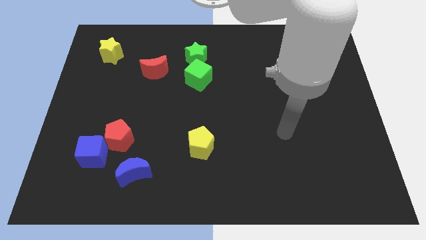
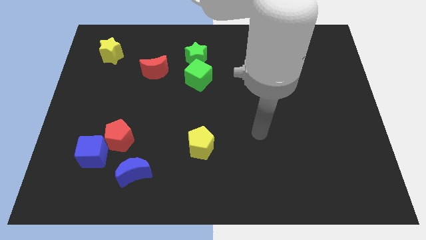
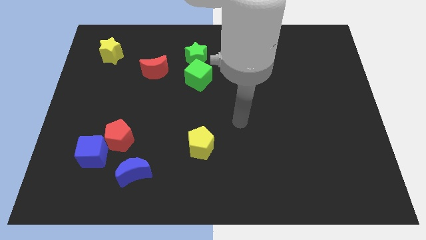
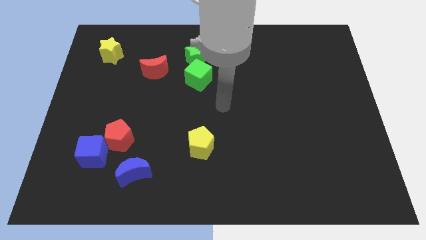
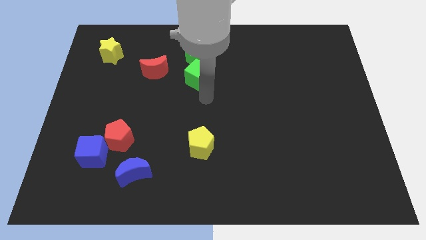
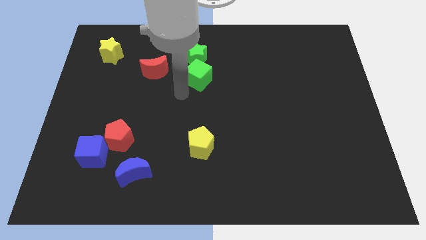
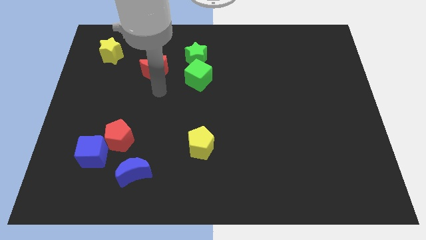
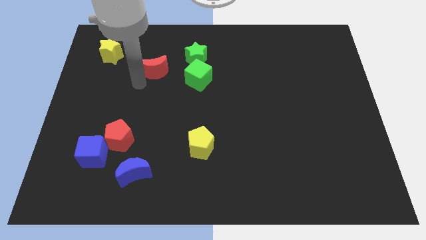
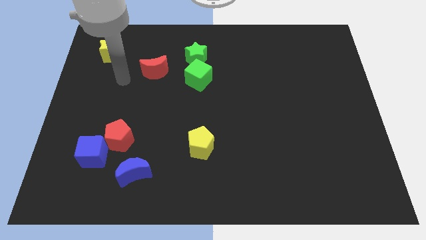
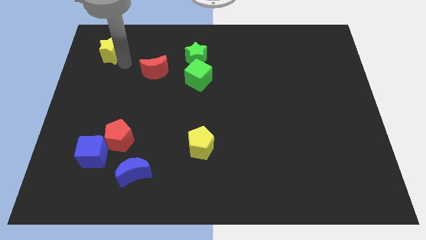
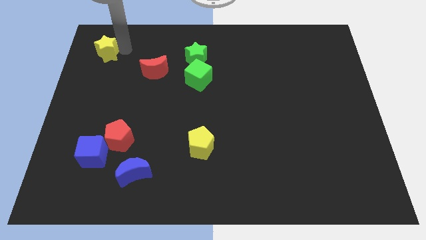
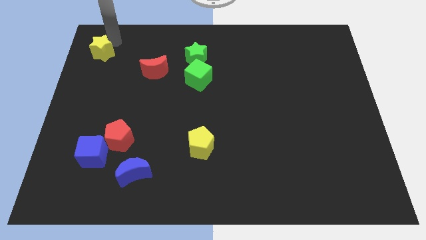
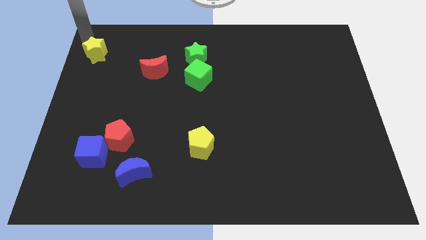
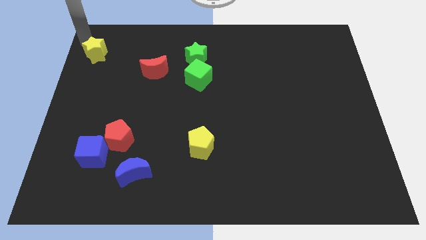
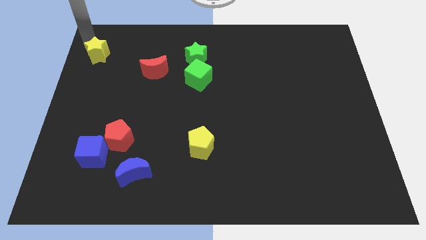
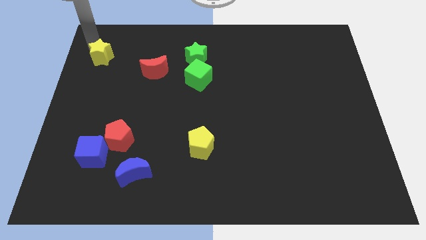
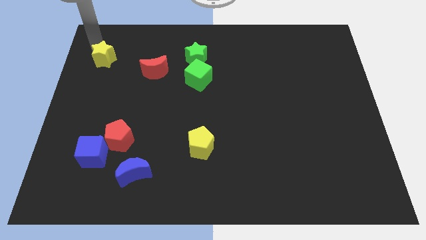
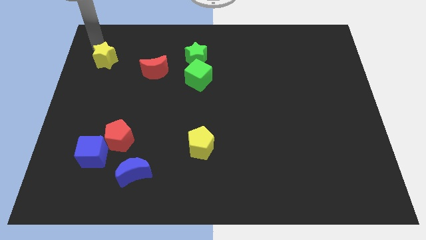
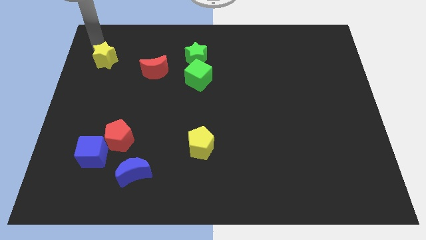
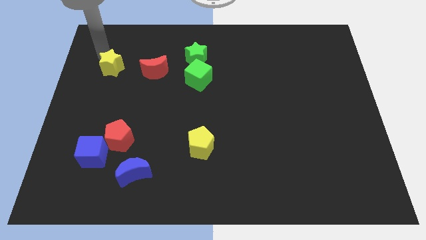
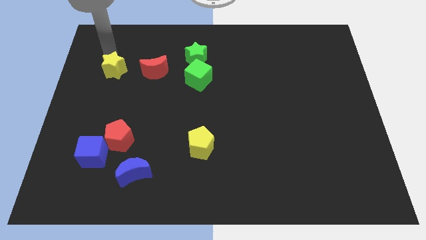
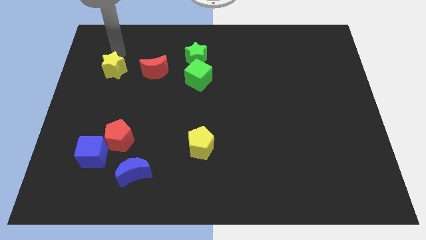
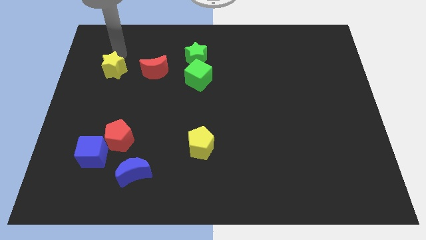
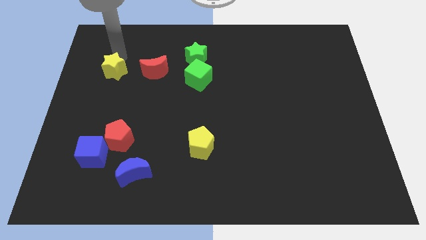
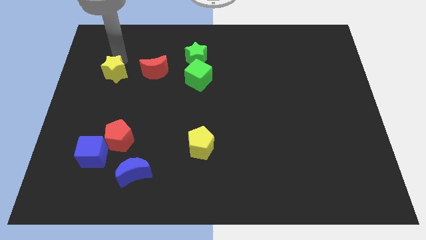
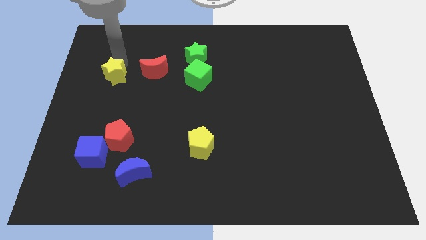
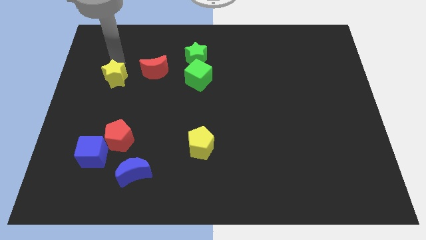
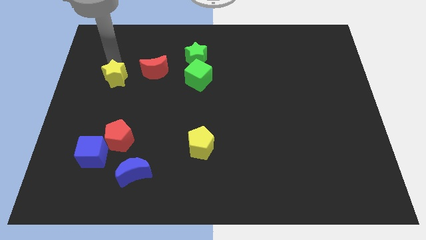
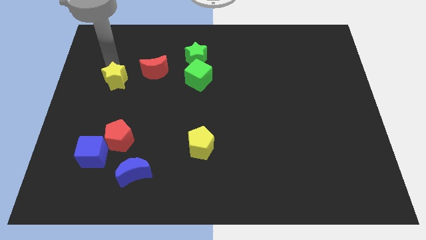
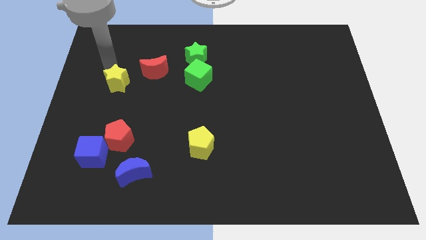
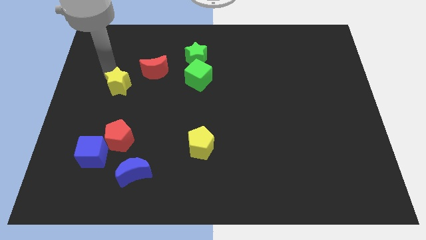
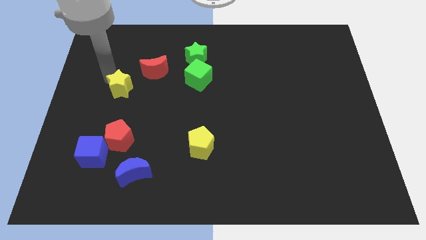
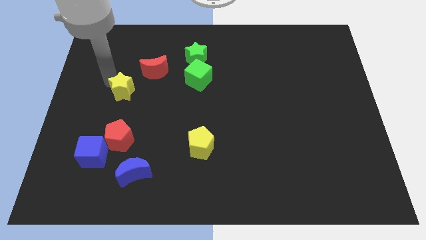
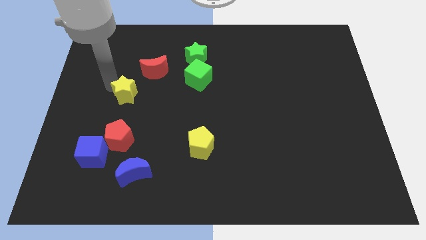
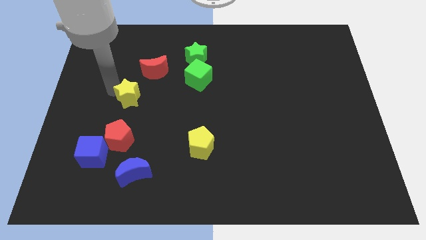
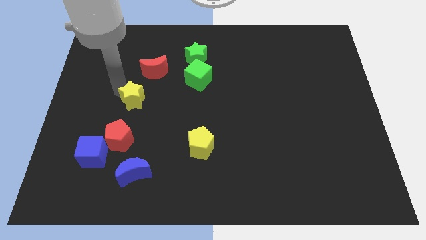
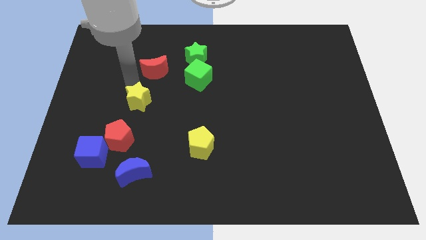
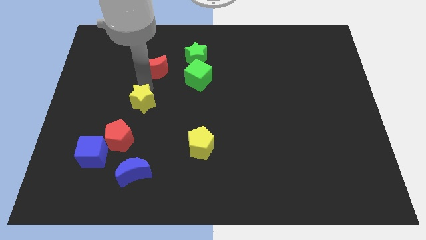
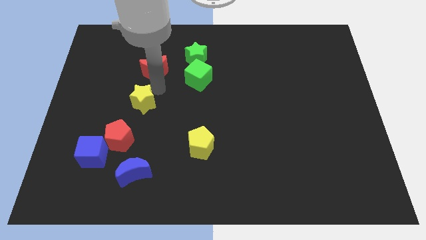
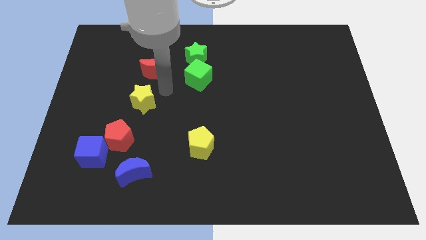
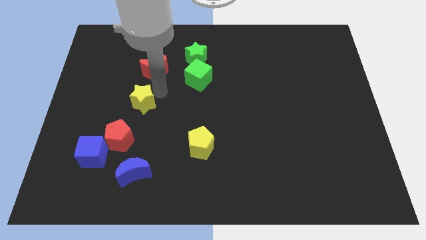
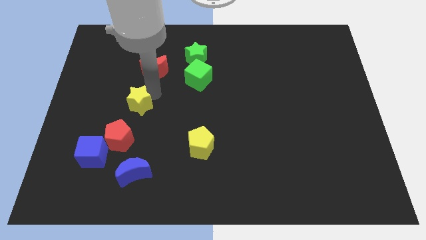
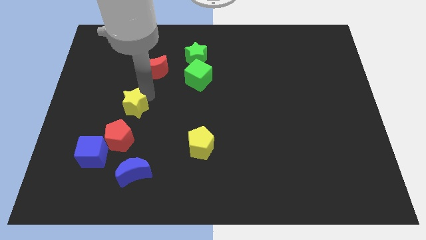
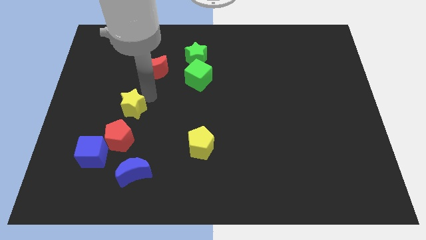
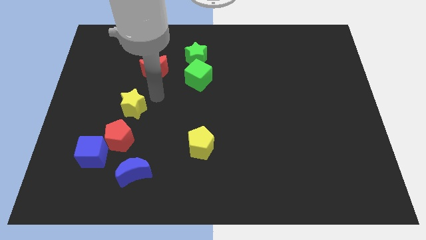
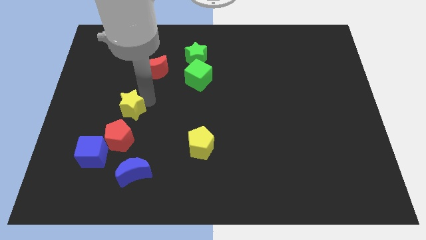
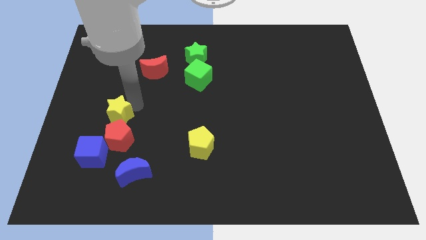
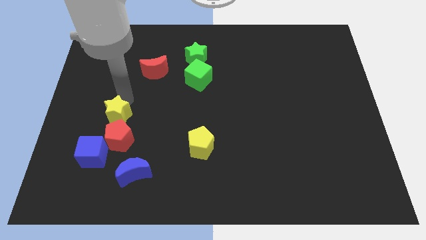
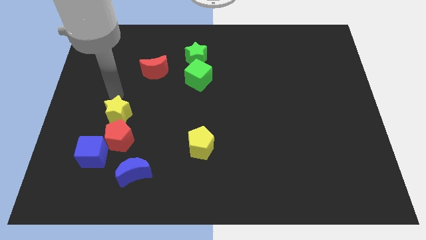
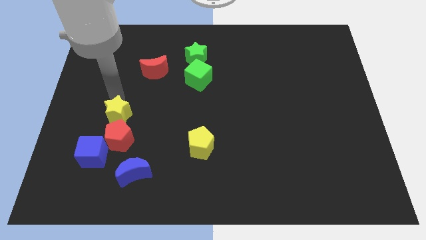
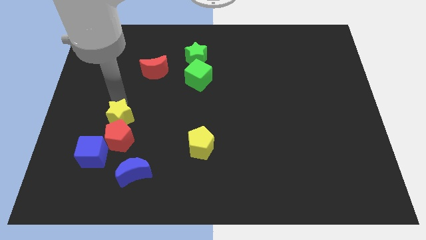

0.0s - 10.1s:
move the yellow star close to the red pentagon

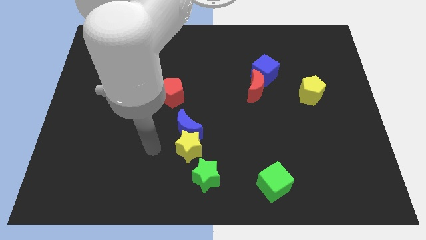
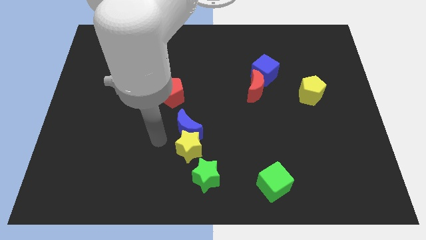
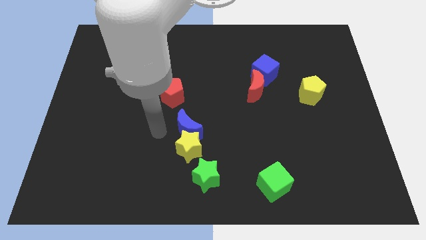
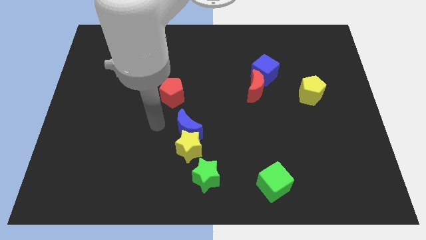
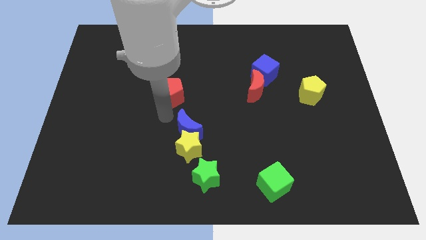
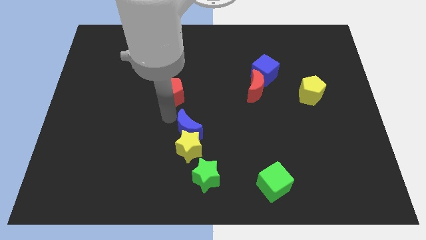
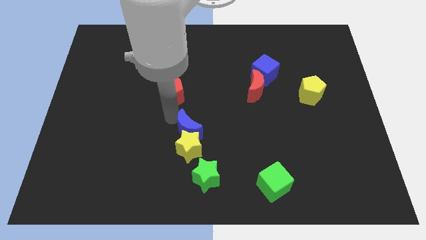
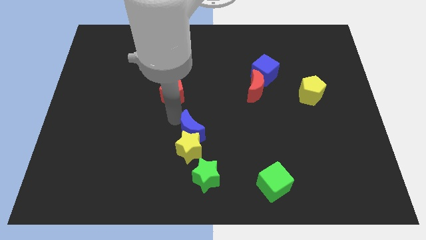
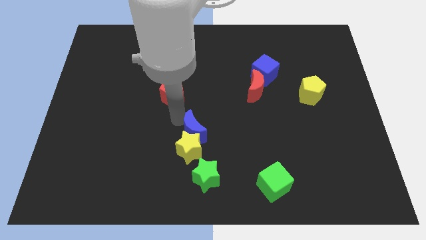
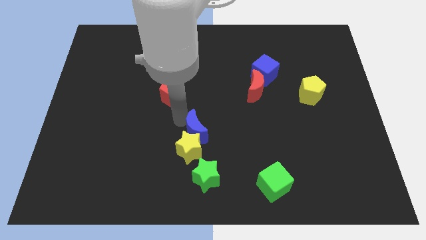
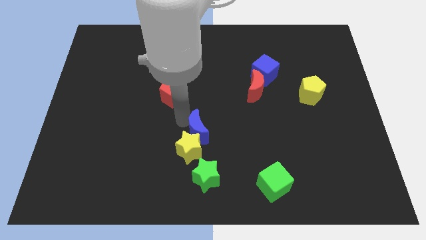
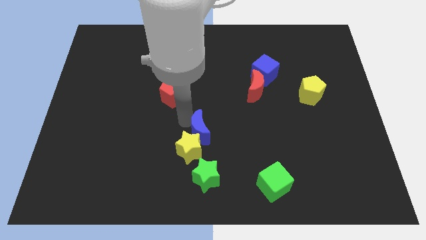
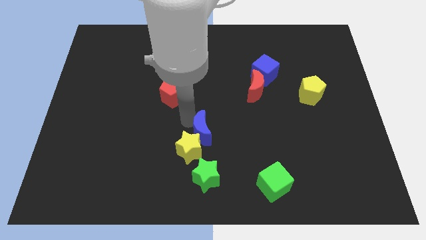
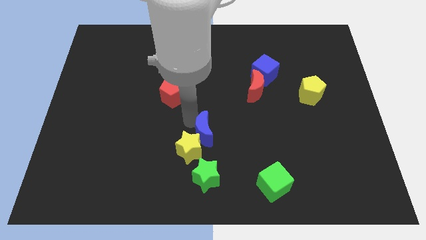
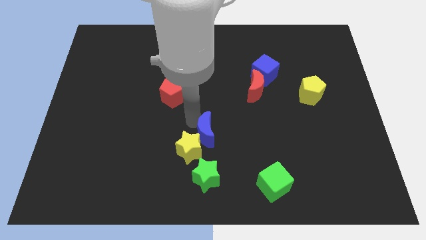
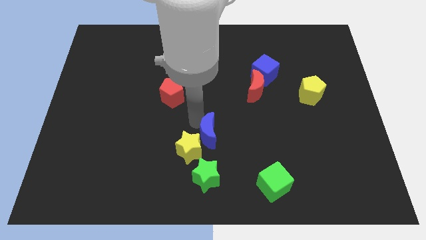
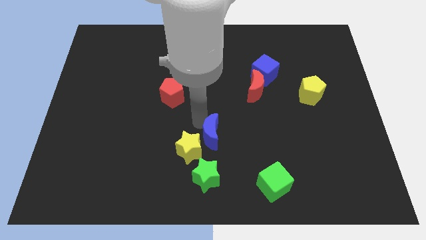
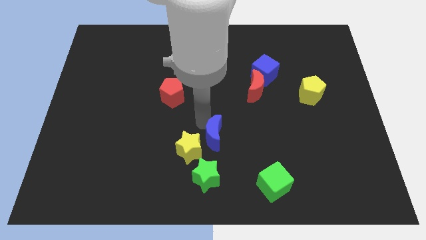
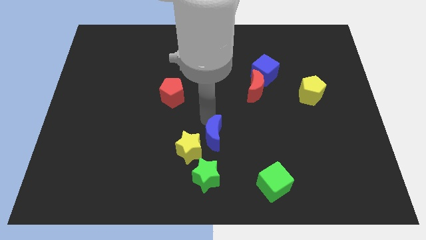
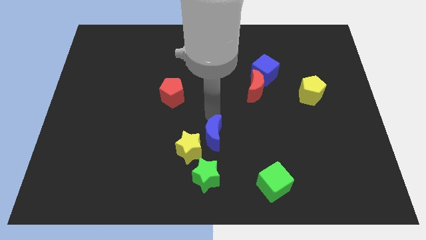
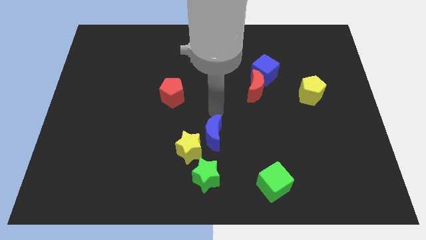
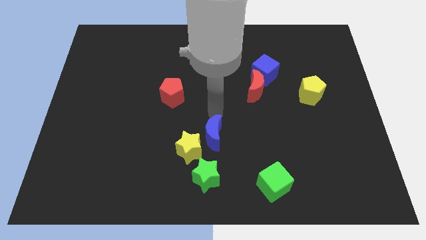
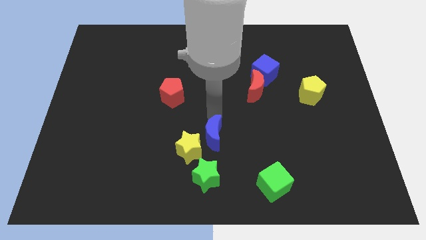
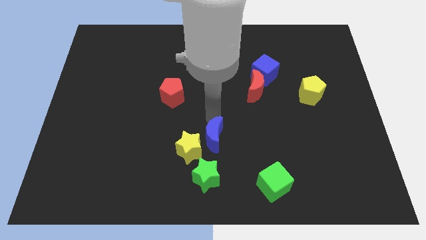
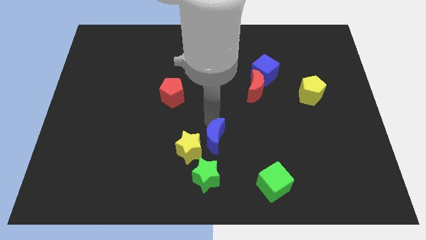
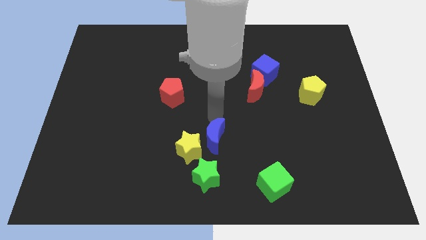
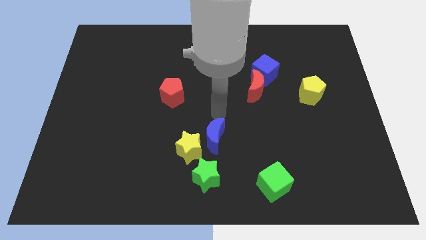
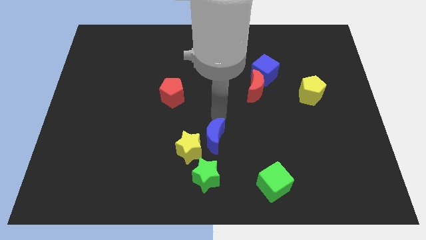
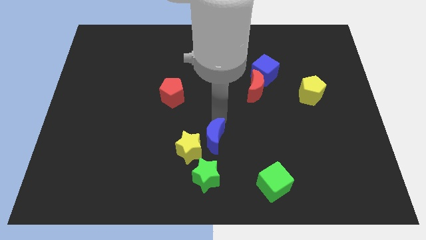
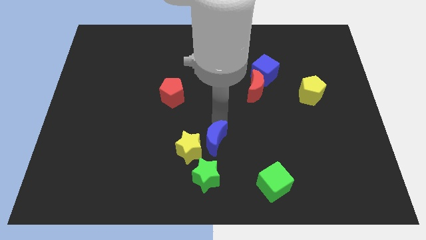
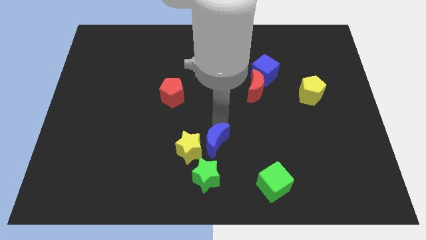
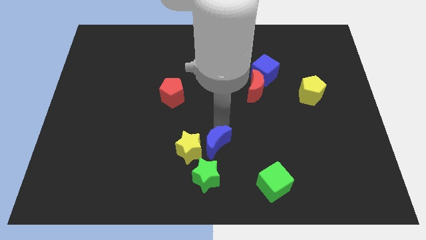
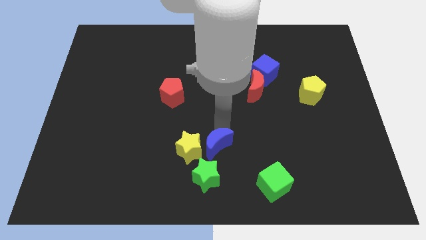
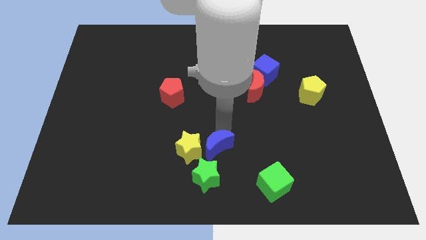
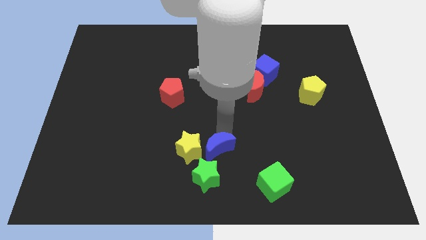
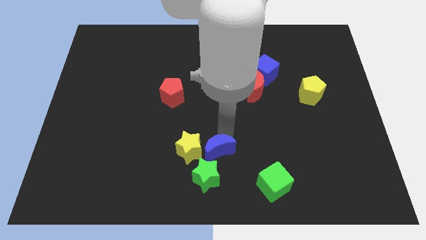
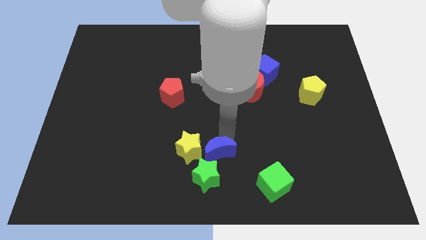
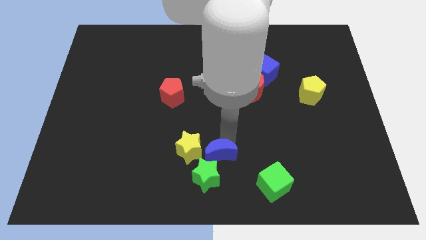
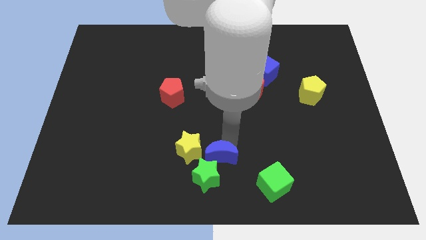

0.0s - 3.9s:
slide the blue moon next to the green star
